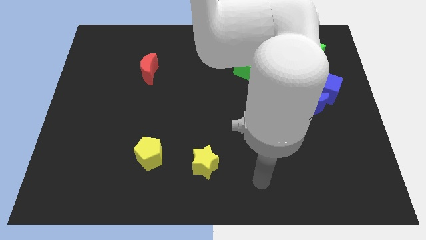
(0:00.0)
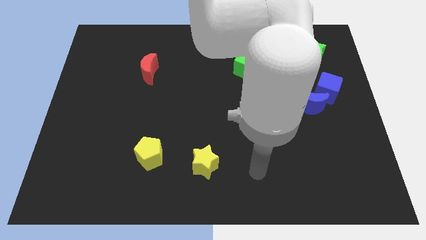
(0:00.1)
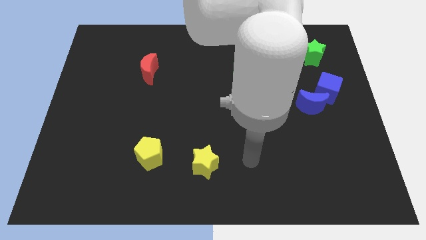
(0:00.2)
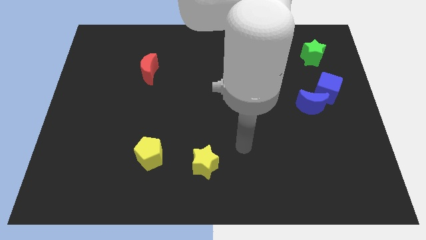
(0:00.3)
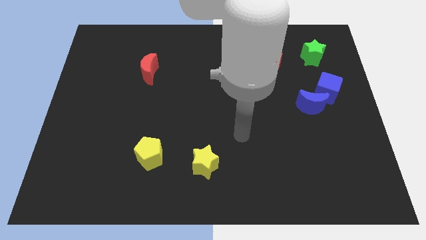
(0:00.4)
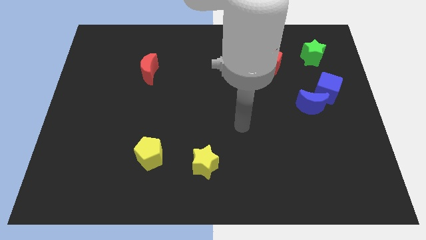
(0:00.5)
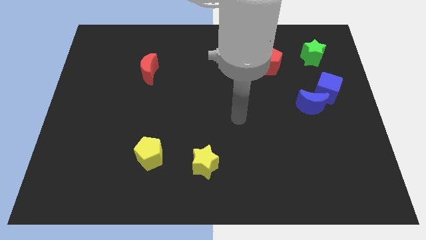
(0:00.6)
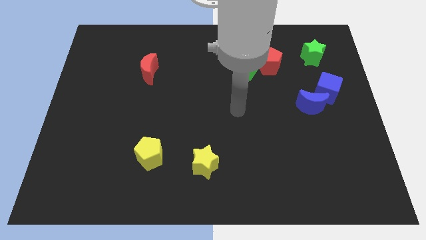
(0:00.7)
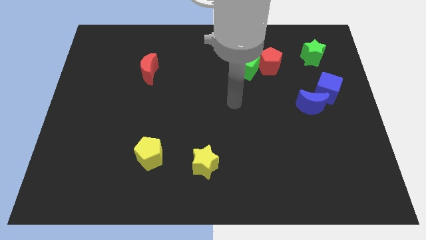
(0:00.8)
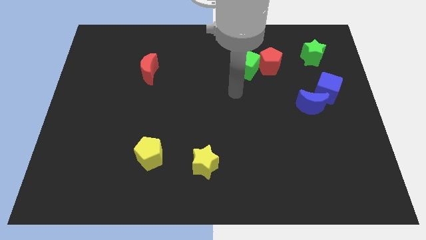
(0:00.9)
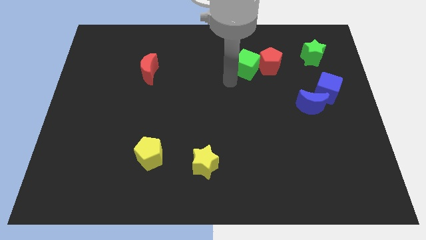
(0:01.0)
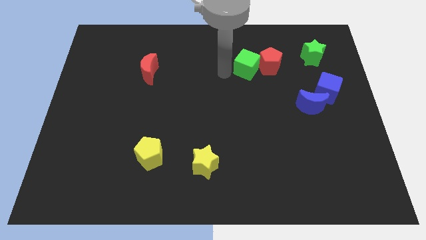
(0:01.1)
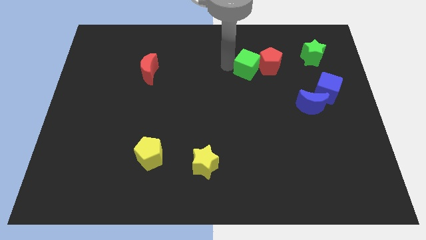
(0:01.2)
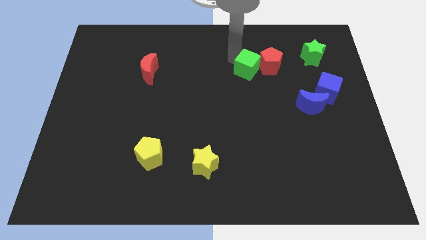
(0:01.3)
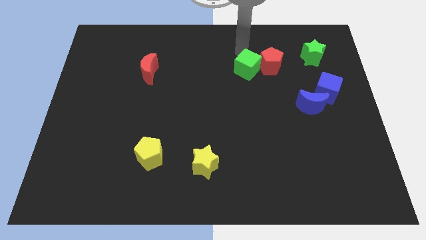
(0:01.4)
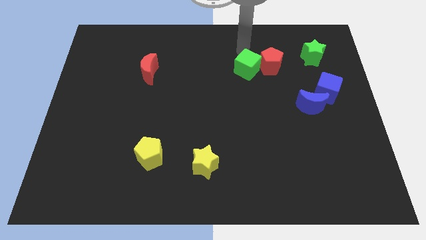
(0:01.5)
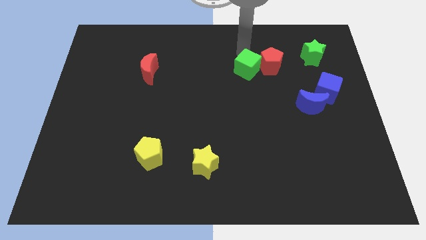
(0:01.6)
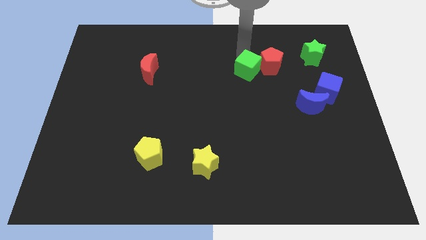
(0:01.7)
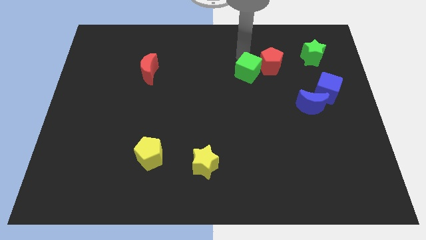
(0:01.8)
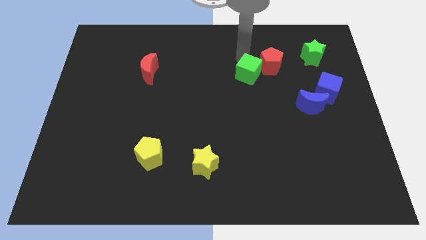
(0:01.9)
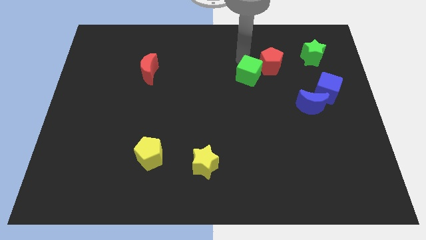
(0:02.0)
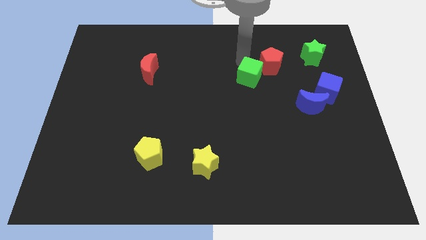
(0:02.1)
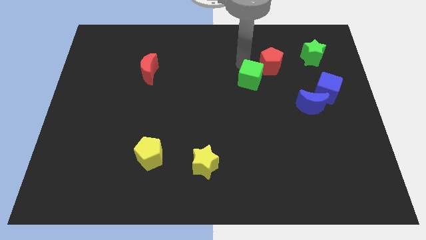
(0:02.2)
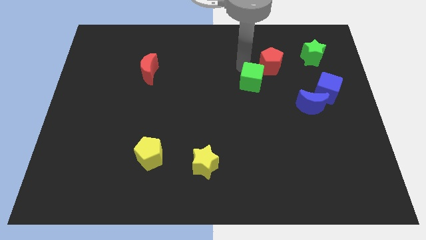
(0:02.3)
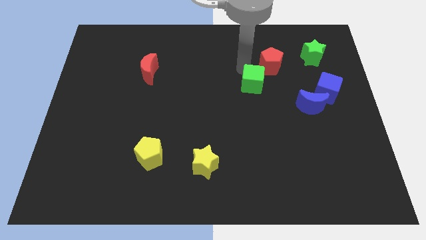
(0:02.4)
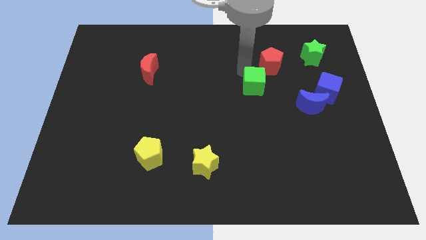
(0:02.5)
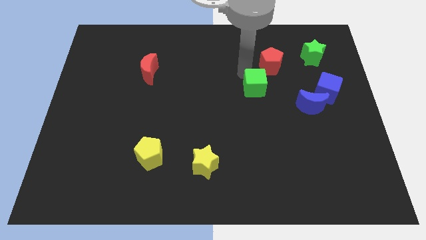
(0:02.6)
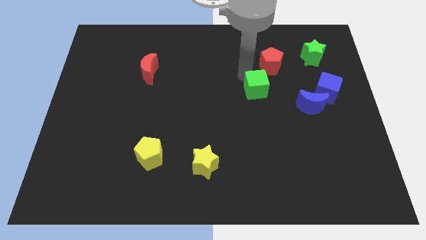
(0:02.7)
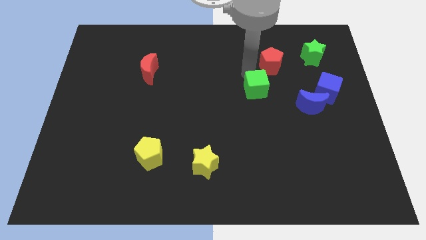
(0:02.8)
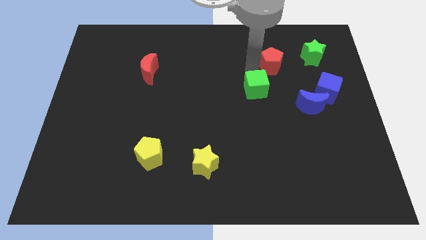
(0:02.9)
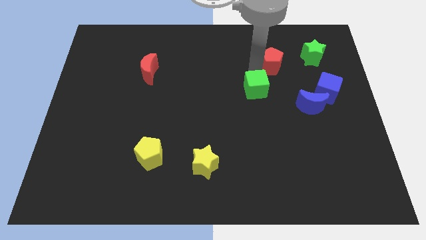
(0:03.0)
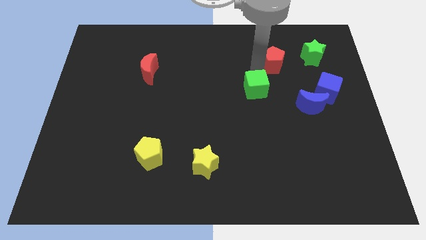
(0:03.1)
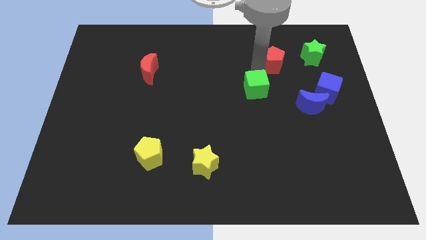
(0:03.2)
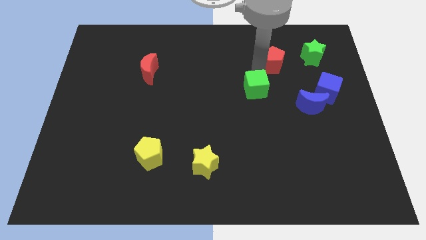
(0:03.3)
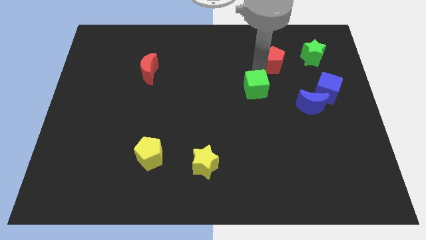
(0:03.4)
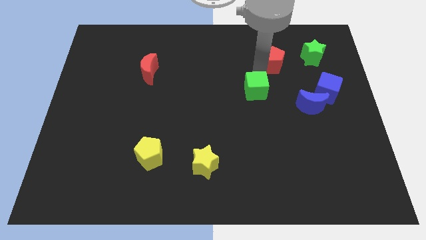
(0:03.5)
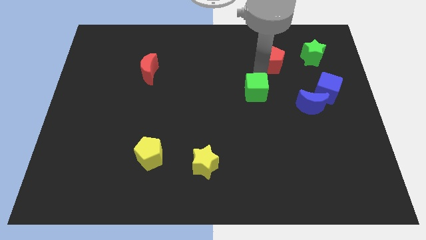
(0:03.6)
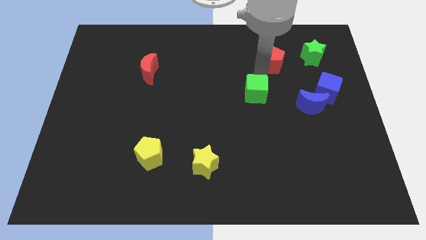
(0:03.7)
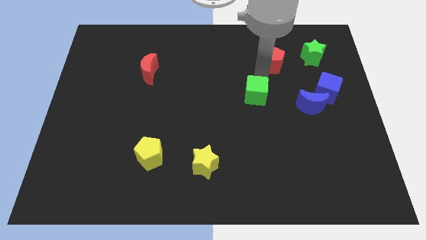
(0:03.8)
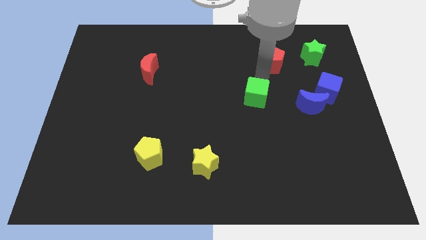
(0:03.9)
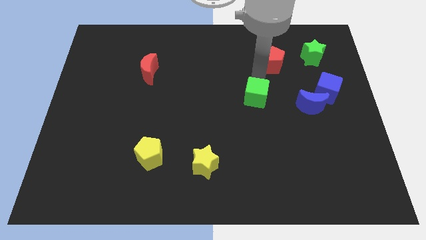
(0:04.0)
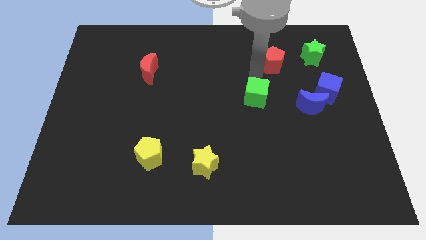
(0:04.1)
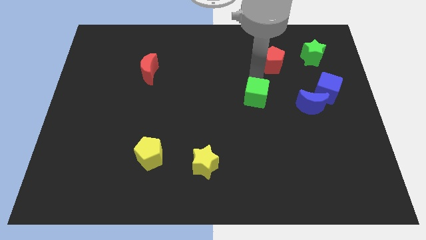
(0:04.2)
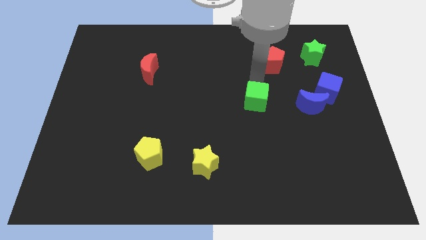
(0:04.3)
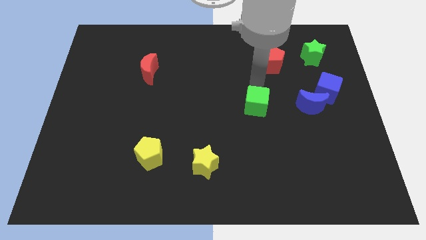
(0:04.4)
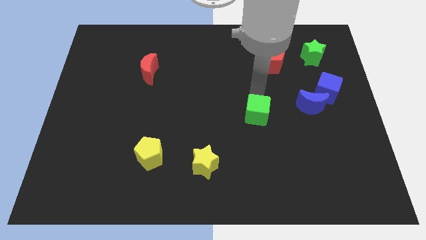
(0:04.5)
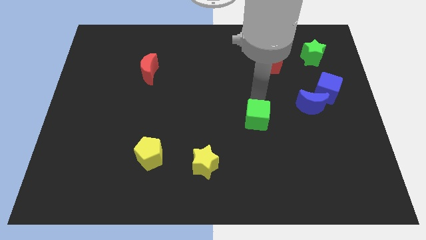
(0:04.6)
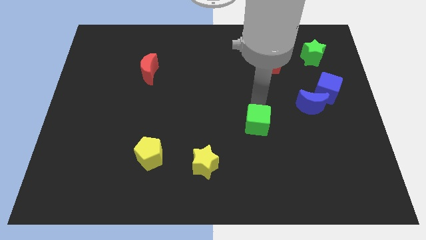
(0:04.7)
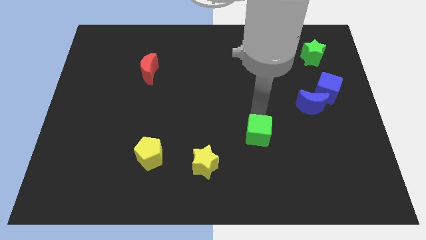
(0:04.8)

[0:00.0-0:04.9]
move the green cube down

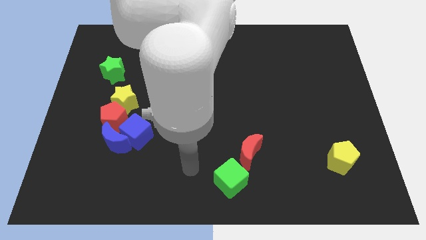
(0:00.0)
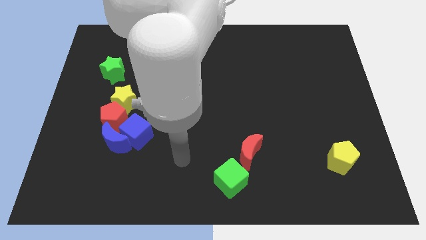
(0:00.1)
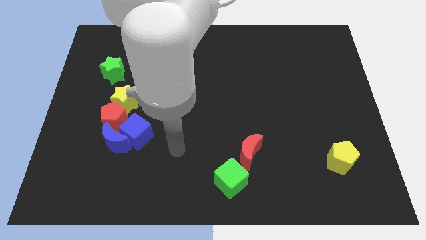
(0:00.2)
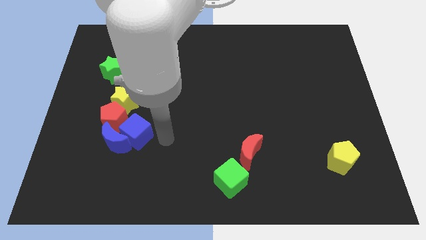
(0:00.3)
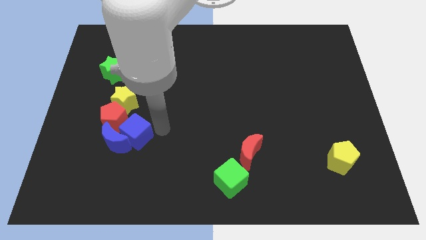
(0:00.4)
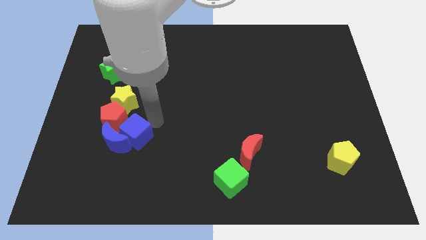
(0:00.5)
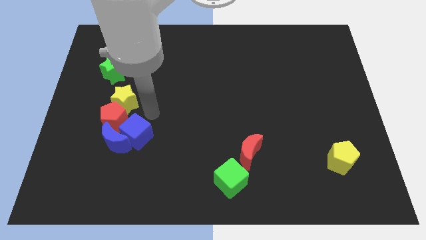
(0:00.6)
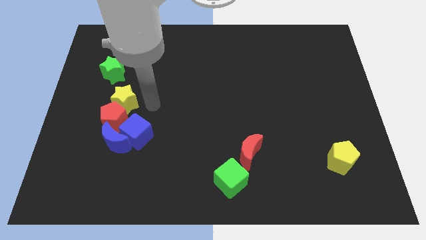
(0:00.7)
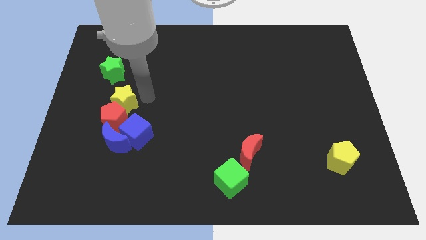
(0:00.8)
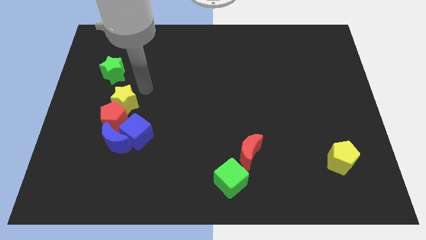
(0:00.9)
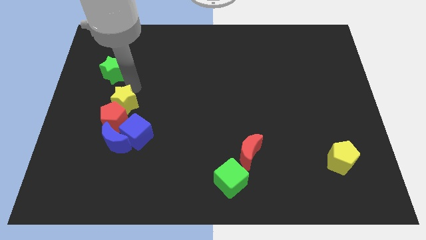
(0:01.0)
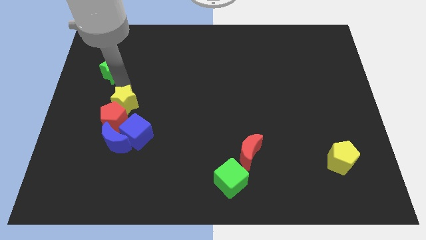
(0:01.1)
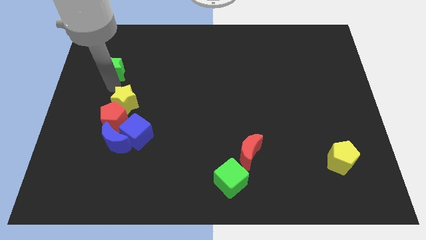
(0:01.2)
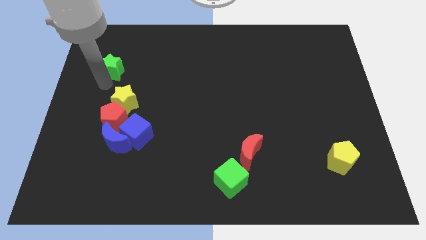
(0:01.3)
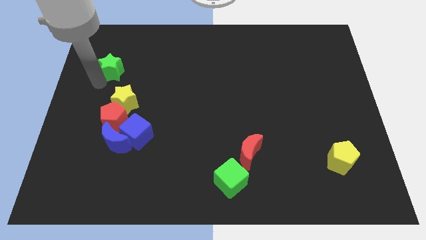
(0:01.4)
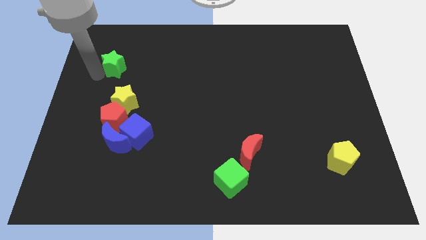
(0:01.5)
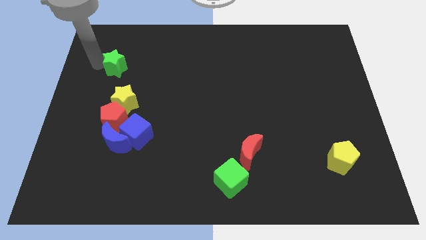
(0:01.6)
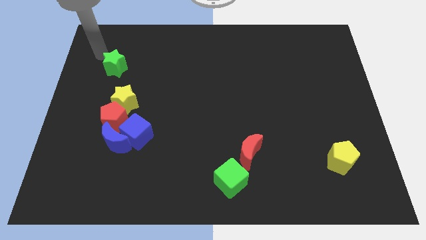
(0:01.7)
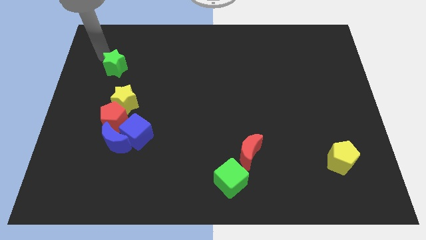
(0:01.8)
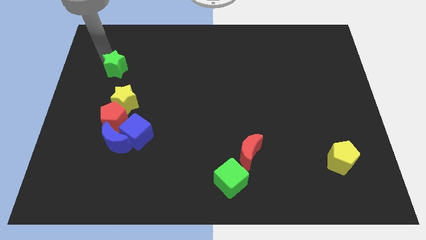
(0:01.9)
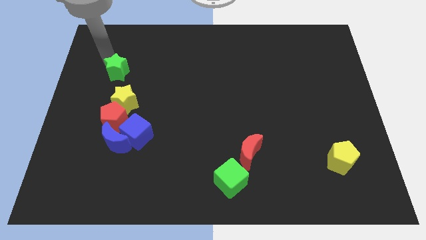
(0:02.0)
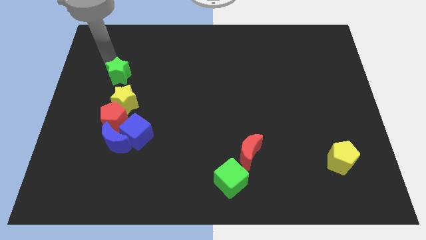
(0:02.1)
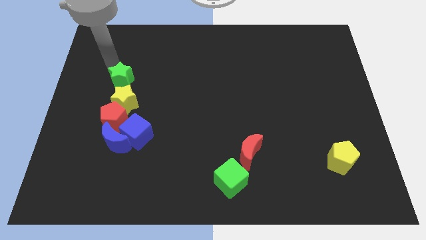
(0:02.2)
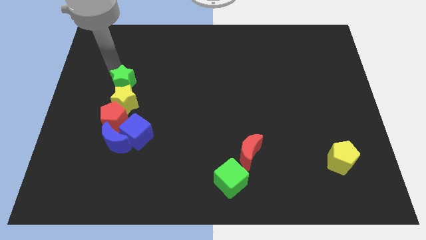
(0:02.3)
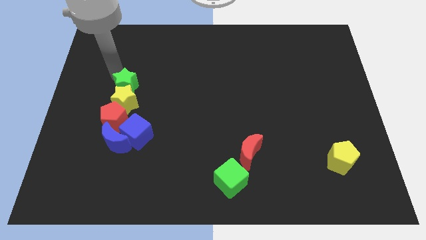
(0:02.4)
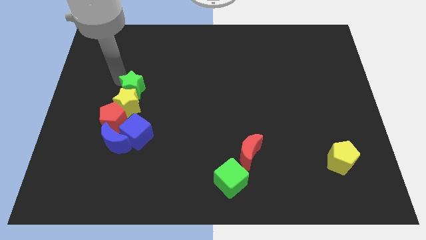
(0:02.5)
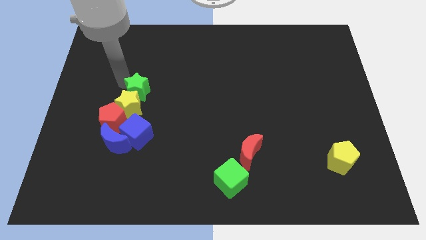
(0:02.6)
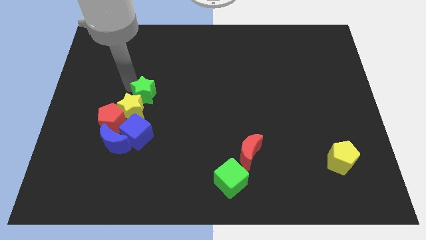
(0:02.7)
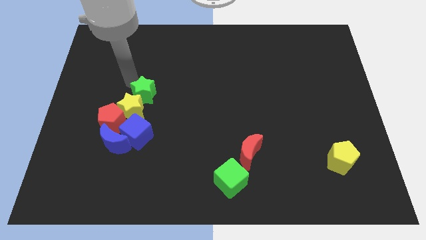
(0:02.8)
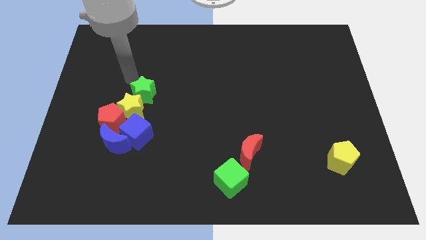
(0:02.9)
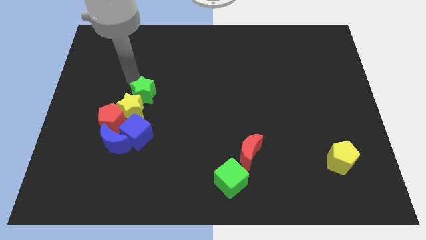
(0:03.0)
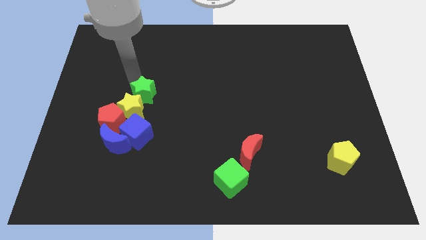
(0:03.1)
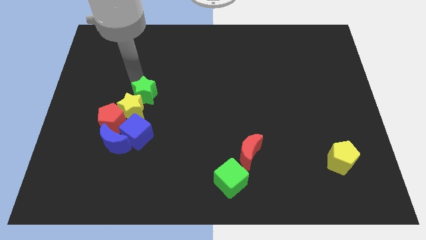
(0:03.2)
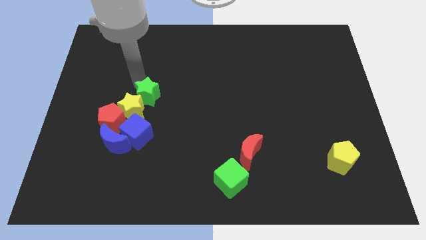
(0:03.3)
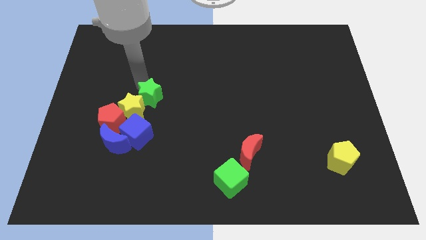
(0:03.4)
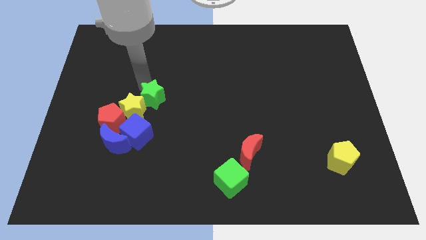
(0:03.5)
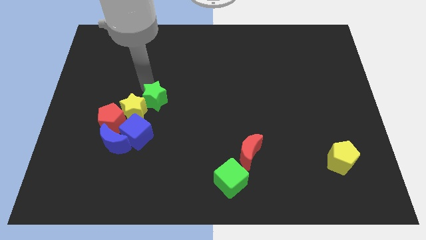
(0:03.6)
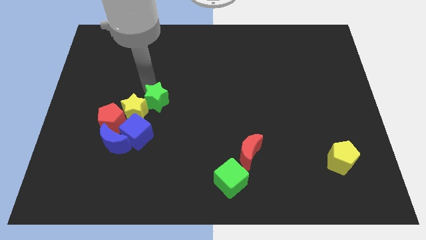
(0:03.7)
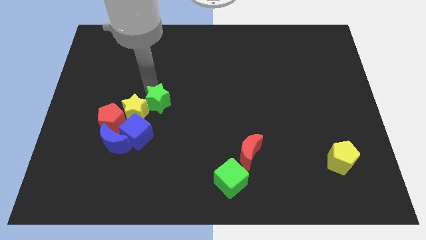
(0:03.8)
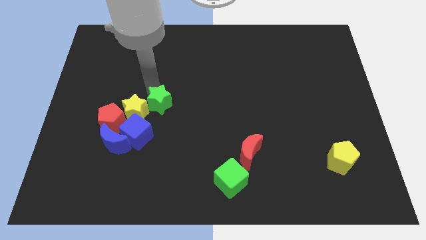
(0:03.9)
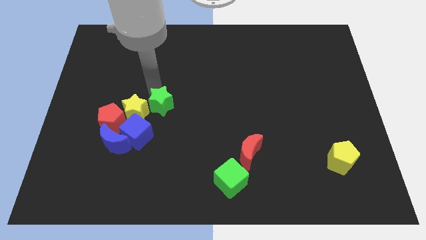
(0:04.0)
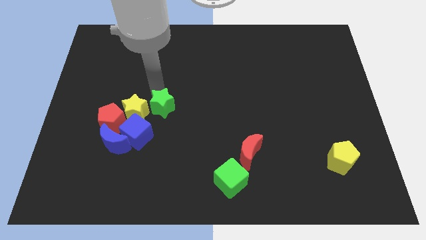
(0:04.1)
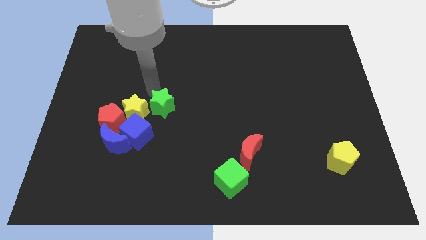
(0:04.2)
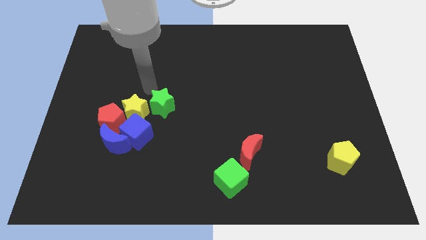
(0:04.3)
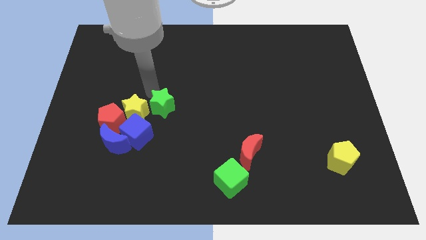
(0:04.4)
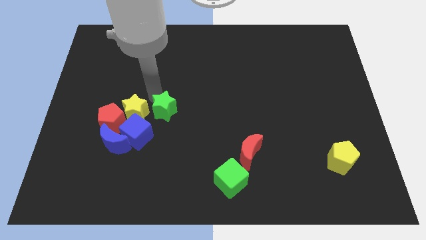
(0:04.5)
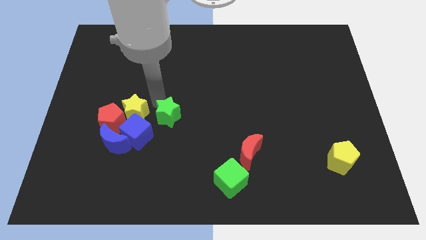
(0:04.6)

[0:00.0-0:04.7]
move the green star downwards and right
